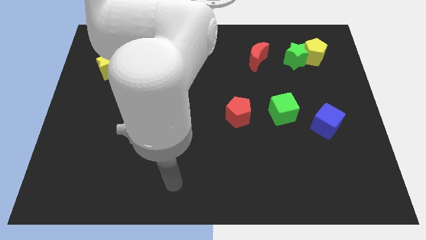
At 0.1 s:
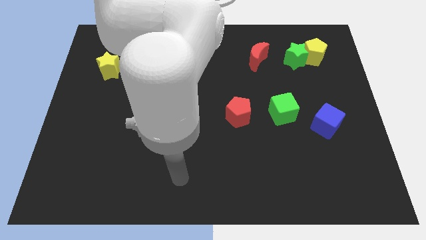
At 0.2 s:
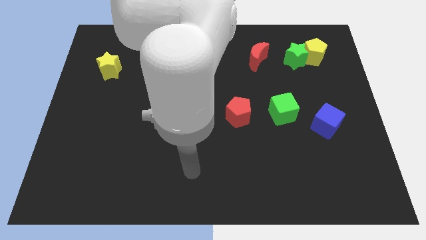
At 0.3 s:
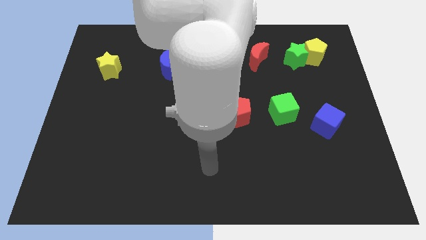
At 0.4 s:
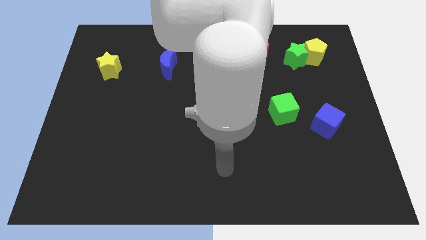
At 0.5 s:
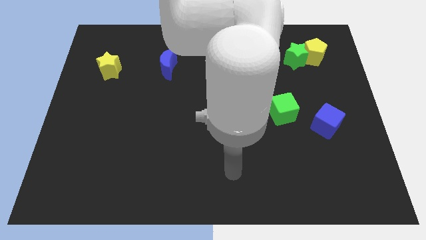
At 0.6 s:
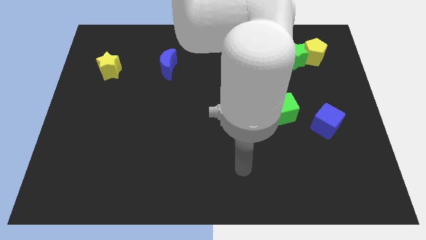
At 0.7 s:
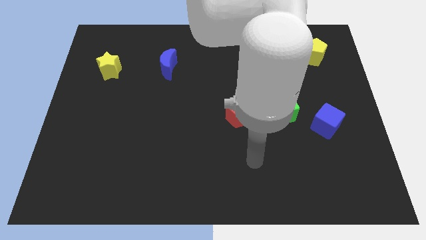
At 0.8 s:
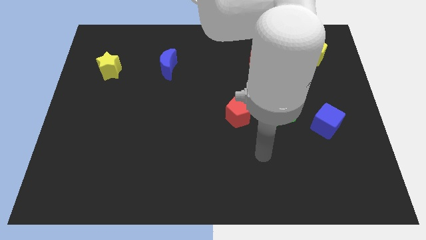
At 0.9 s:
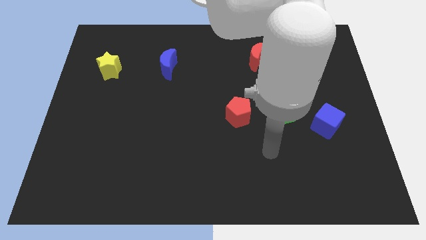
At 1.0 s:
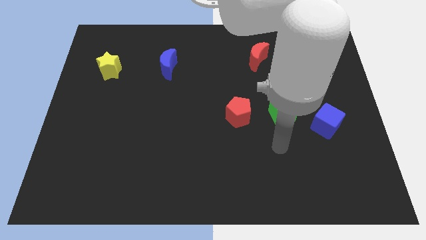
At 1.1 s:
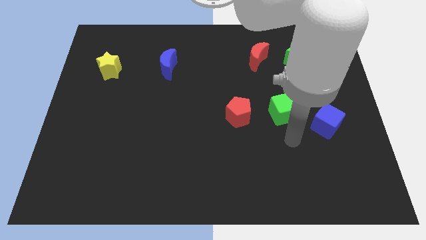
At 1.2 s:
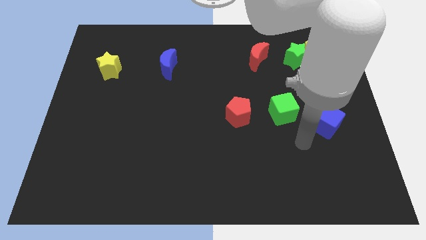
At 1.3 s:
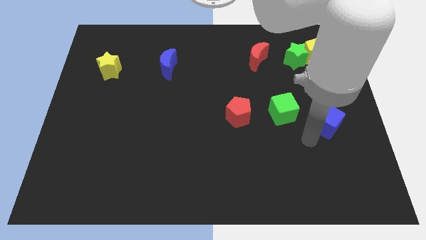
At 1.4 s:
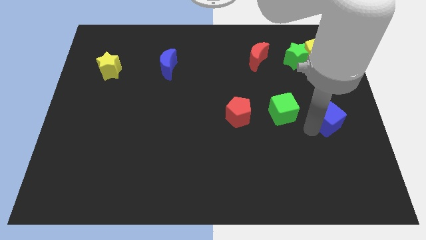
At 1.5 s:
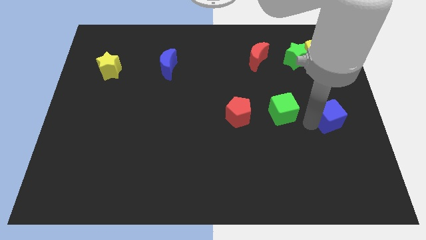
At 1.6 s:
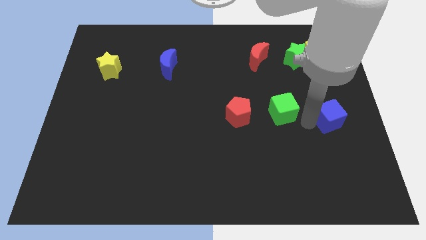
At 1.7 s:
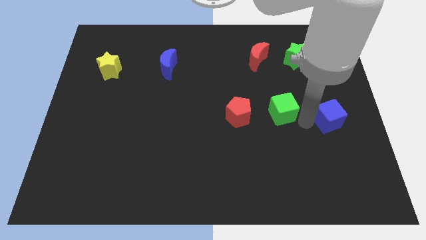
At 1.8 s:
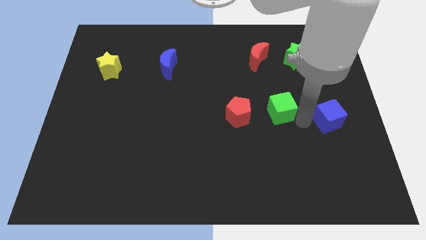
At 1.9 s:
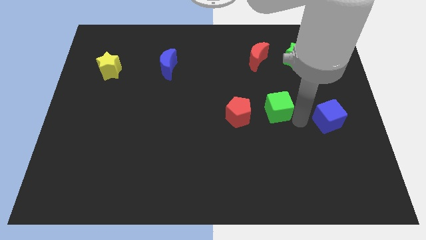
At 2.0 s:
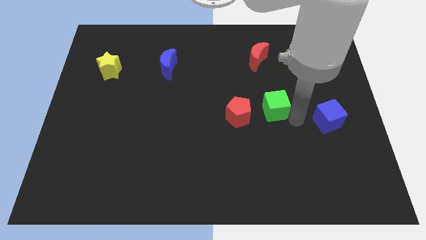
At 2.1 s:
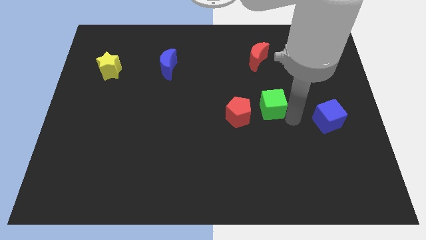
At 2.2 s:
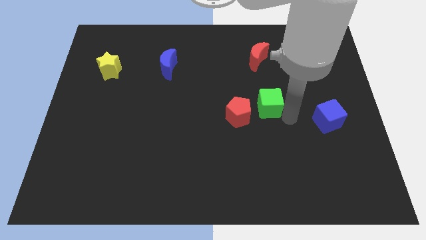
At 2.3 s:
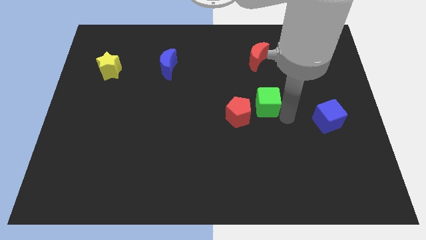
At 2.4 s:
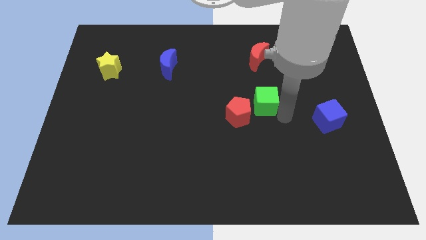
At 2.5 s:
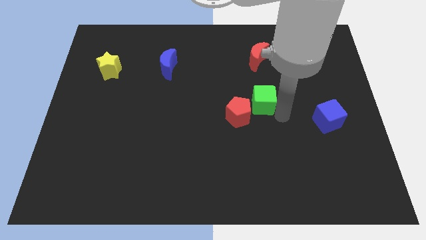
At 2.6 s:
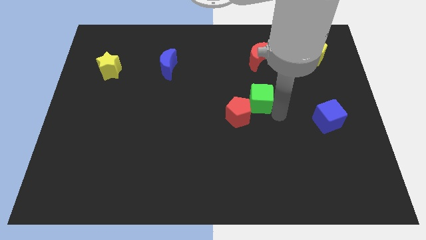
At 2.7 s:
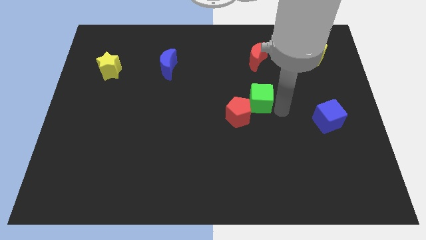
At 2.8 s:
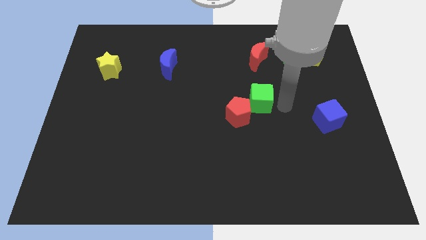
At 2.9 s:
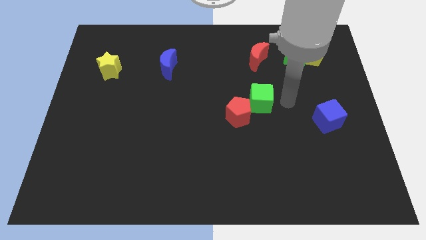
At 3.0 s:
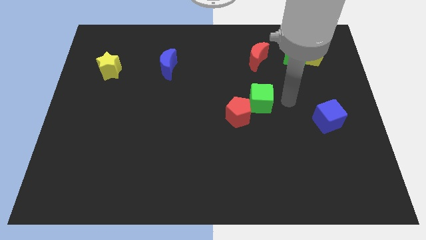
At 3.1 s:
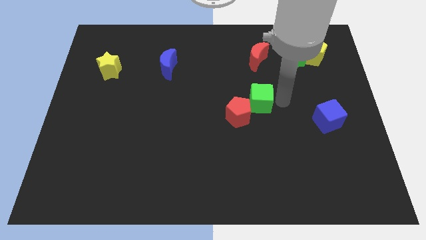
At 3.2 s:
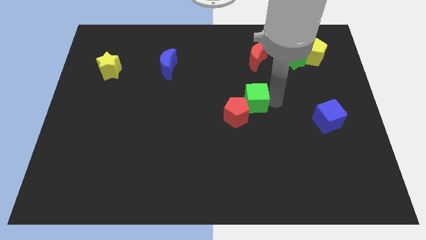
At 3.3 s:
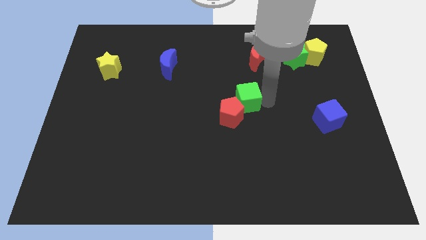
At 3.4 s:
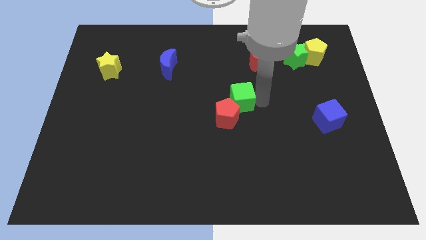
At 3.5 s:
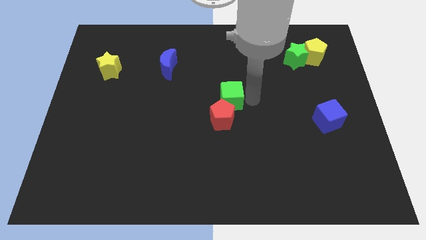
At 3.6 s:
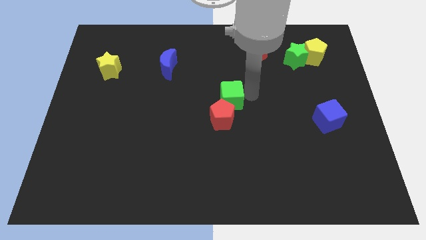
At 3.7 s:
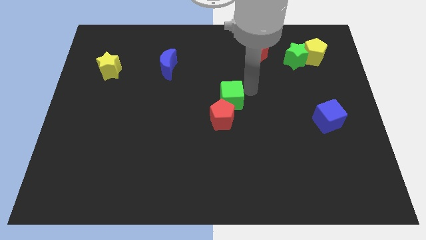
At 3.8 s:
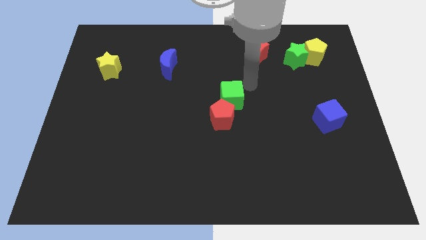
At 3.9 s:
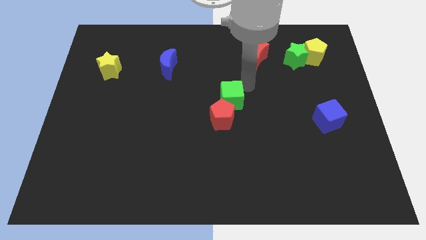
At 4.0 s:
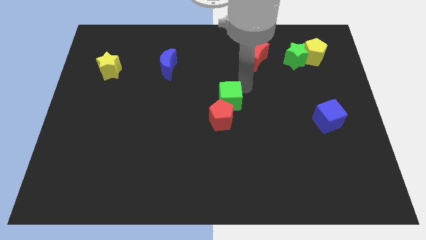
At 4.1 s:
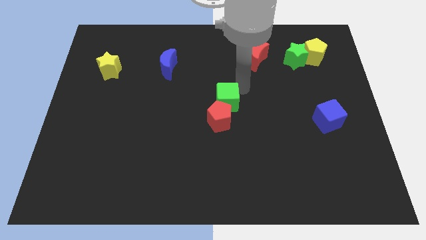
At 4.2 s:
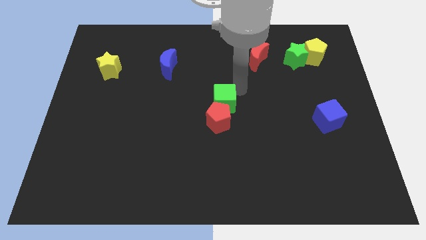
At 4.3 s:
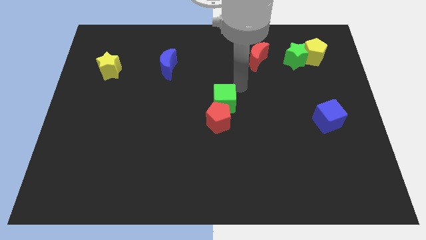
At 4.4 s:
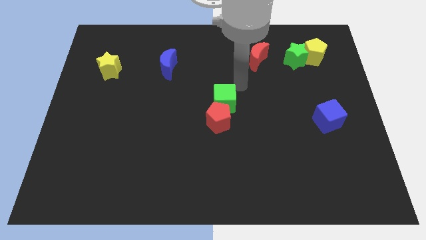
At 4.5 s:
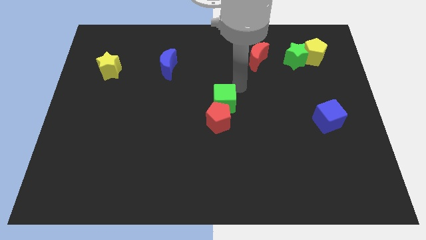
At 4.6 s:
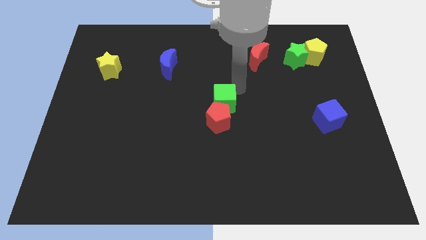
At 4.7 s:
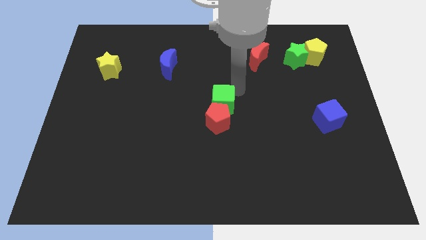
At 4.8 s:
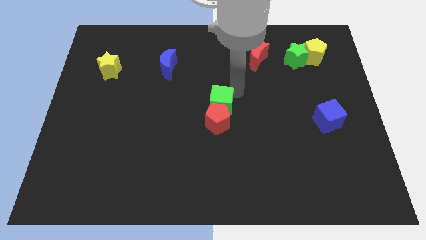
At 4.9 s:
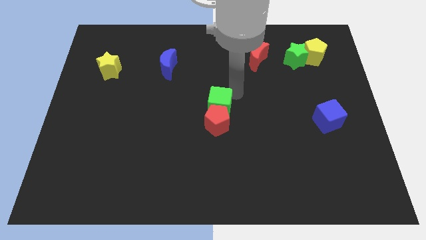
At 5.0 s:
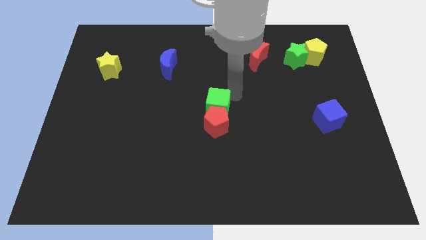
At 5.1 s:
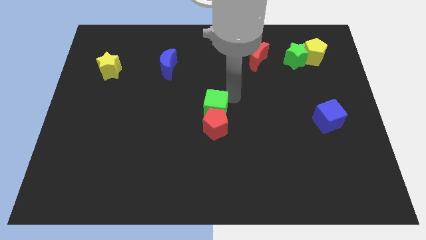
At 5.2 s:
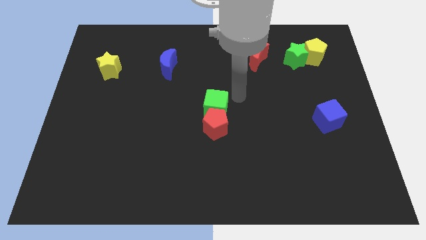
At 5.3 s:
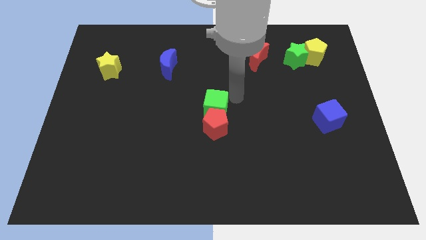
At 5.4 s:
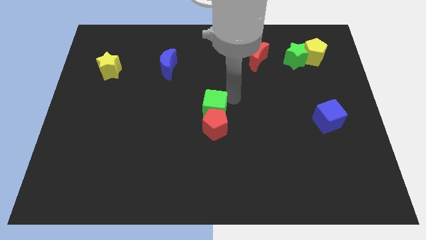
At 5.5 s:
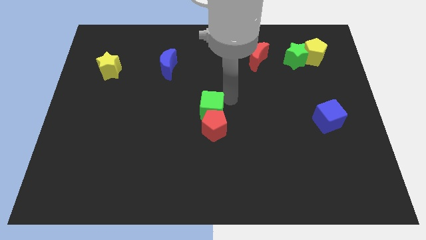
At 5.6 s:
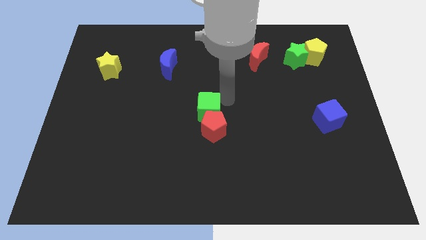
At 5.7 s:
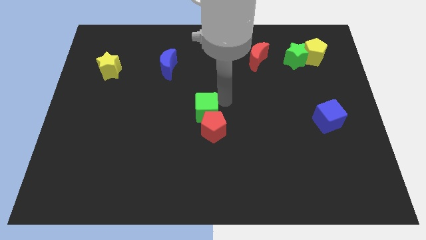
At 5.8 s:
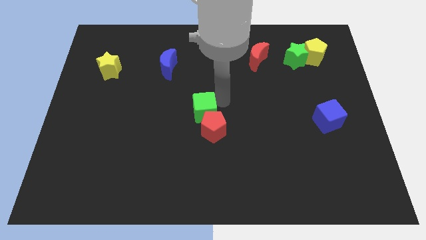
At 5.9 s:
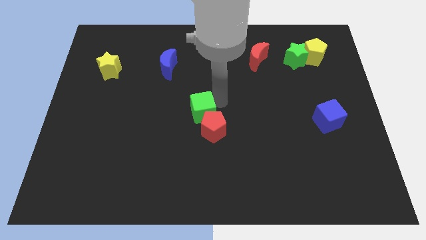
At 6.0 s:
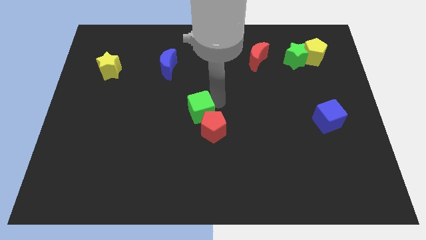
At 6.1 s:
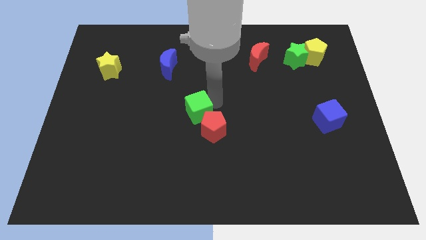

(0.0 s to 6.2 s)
slide the green cube left

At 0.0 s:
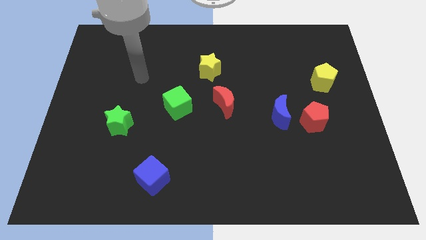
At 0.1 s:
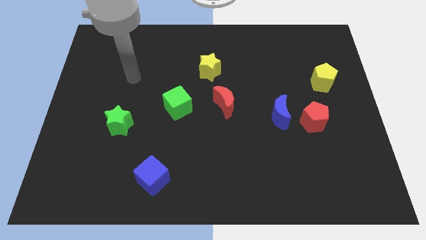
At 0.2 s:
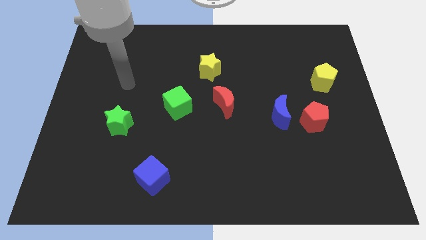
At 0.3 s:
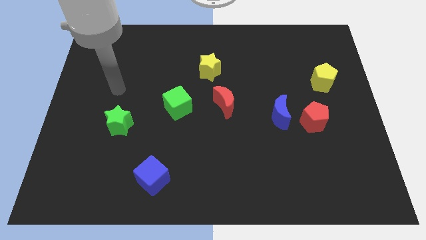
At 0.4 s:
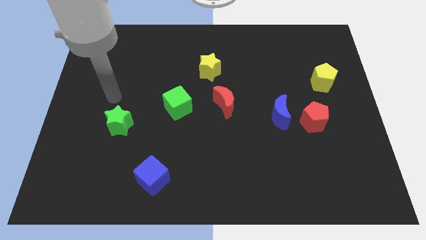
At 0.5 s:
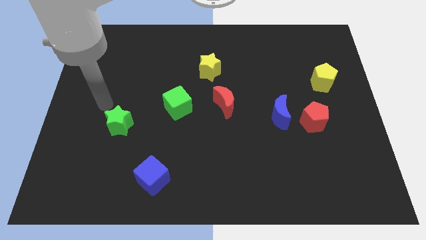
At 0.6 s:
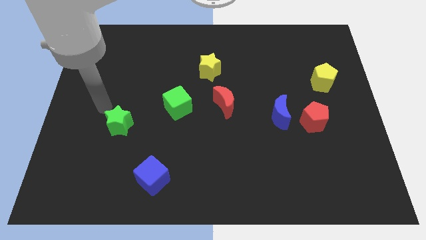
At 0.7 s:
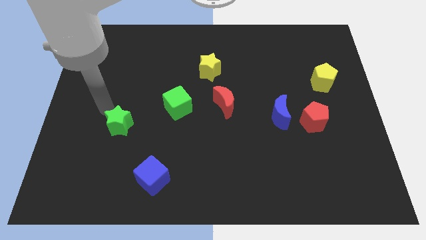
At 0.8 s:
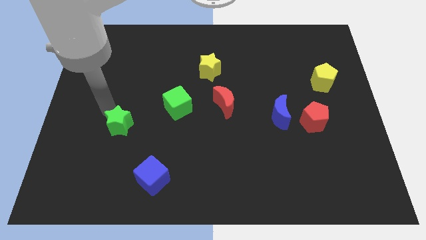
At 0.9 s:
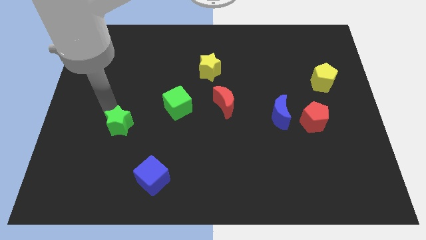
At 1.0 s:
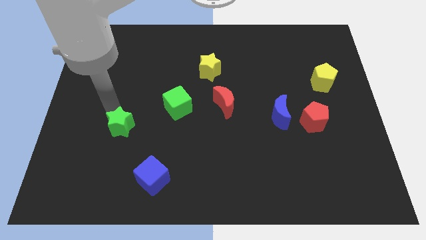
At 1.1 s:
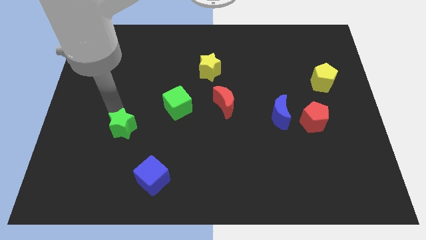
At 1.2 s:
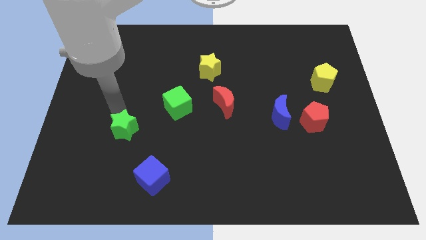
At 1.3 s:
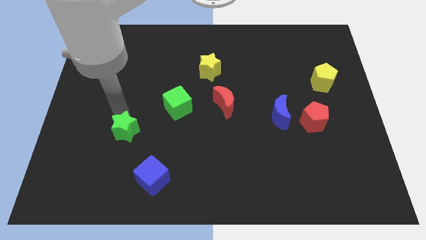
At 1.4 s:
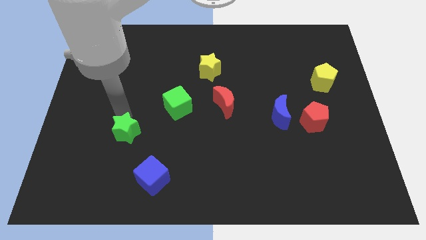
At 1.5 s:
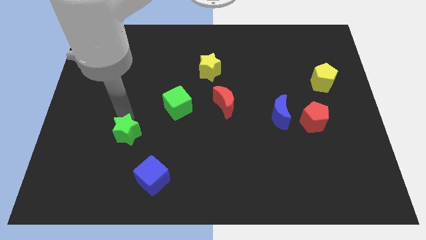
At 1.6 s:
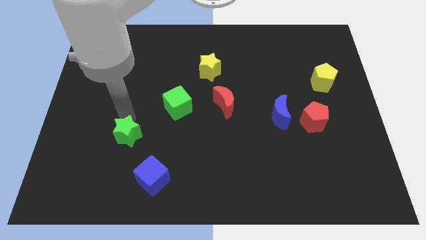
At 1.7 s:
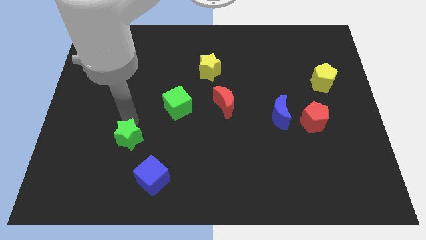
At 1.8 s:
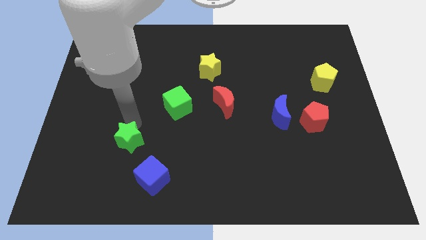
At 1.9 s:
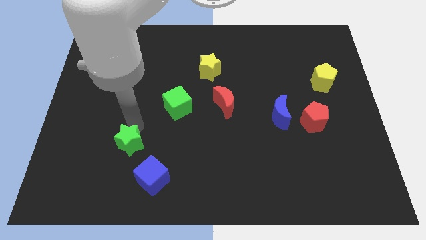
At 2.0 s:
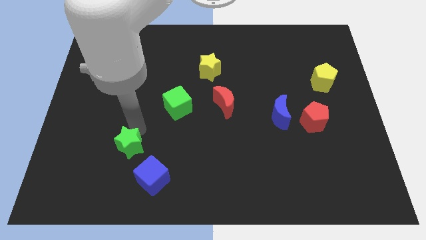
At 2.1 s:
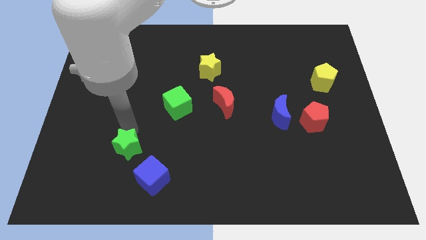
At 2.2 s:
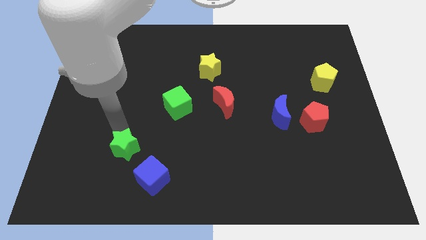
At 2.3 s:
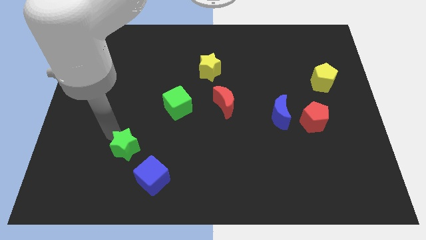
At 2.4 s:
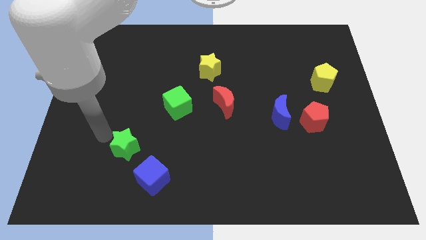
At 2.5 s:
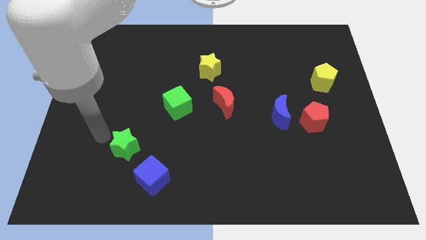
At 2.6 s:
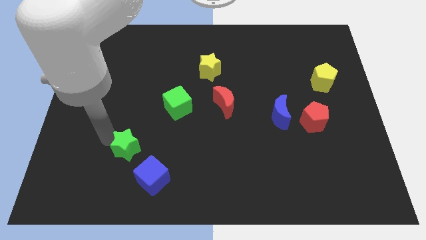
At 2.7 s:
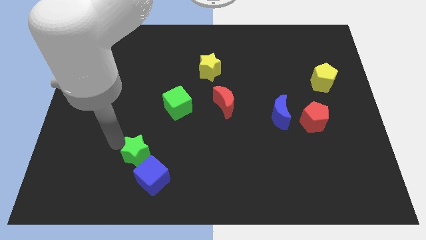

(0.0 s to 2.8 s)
move the green star somewhat diagonally downwards and to the right
